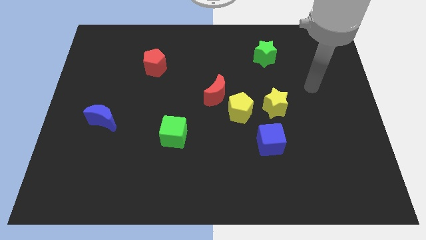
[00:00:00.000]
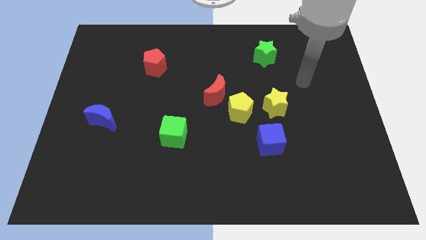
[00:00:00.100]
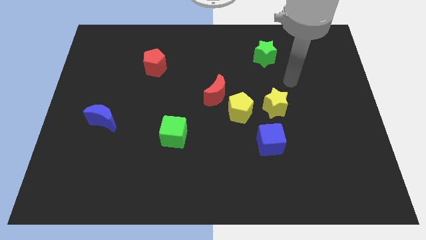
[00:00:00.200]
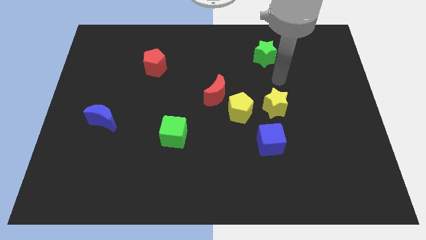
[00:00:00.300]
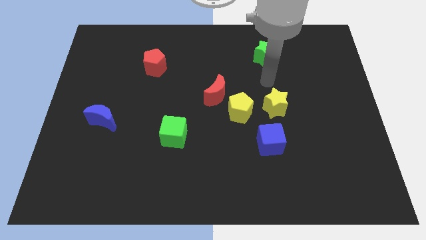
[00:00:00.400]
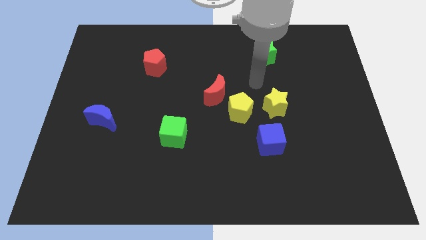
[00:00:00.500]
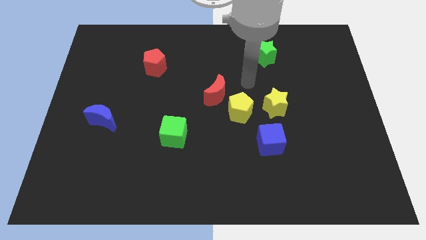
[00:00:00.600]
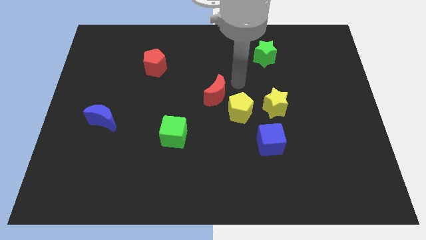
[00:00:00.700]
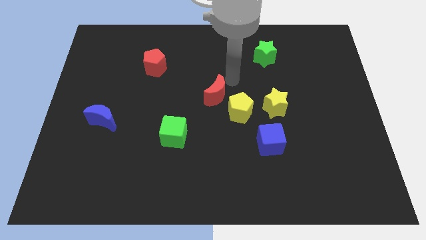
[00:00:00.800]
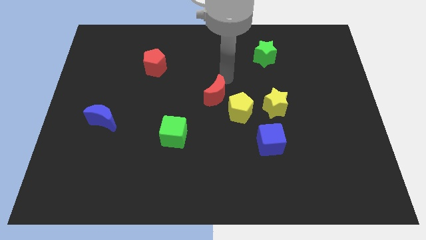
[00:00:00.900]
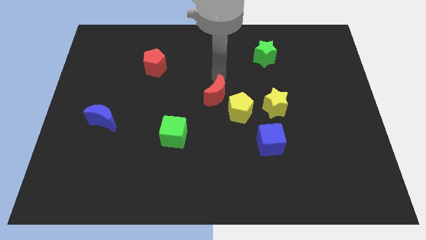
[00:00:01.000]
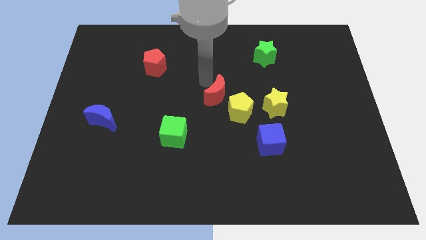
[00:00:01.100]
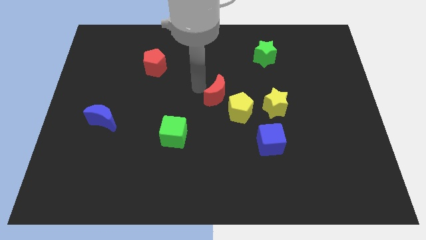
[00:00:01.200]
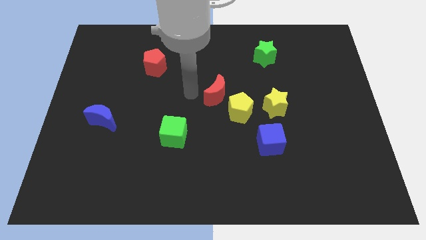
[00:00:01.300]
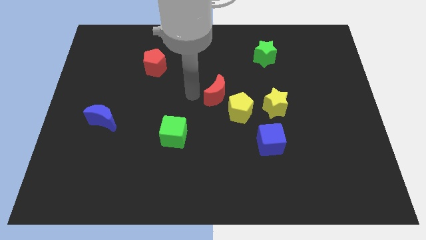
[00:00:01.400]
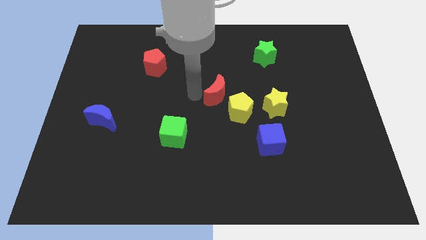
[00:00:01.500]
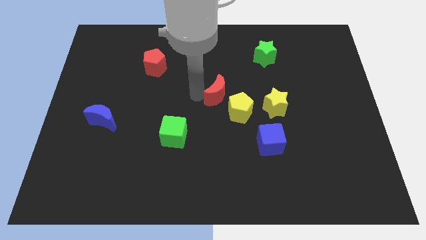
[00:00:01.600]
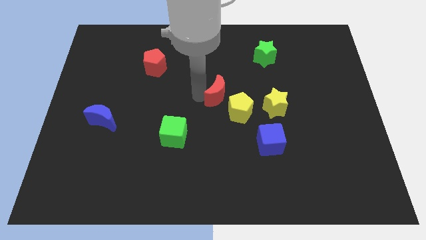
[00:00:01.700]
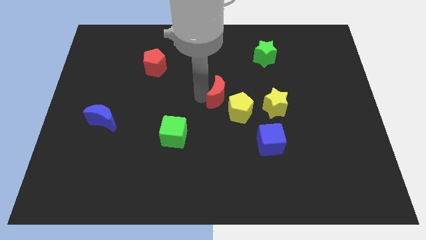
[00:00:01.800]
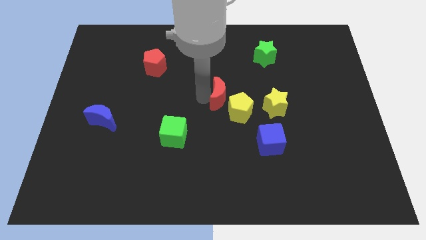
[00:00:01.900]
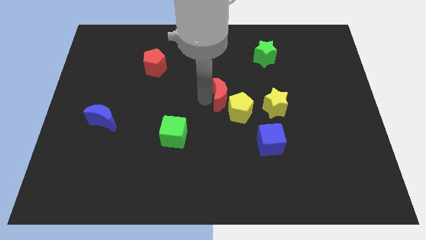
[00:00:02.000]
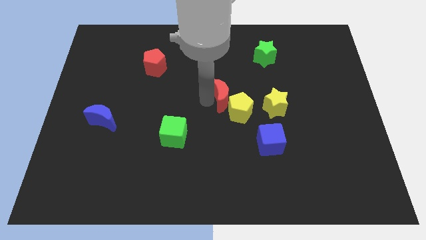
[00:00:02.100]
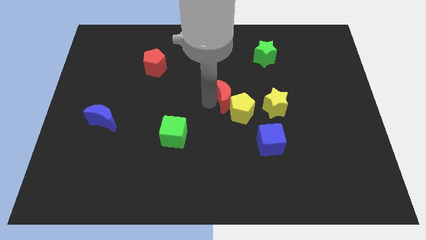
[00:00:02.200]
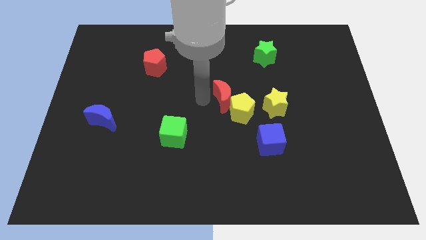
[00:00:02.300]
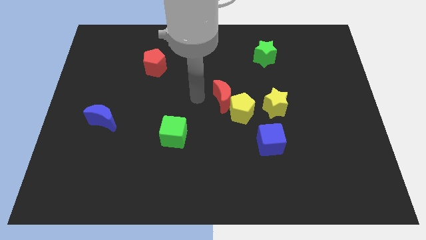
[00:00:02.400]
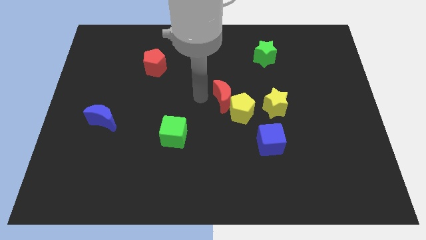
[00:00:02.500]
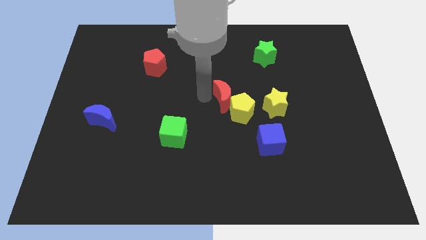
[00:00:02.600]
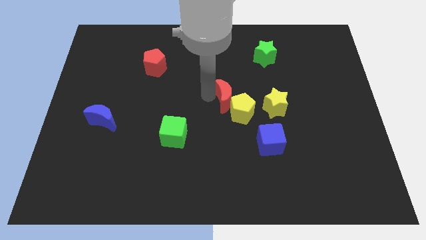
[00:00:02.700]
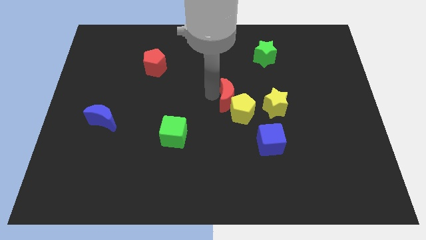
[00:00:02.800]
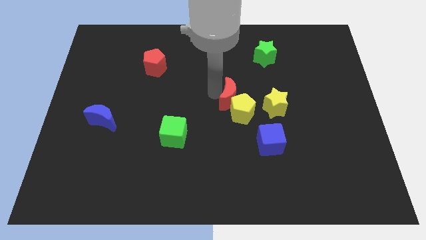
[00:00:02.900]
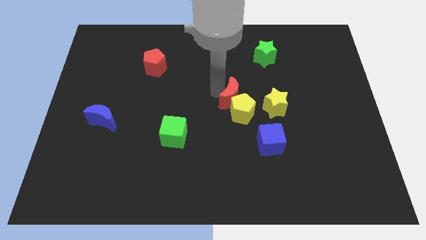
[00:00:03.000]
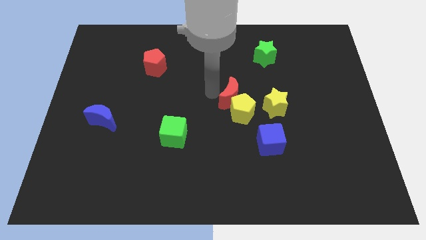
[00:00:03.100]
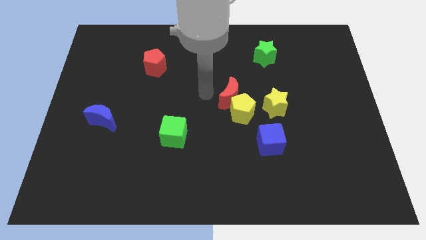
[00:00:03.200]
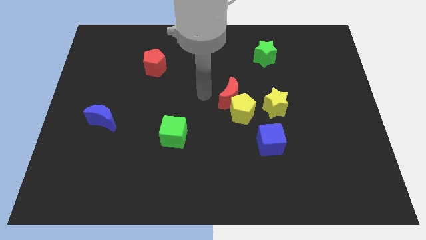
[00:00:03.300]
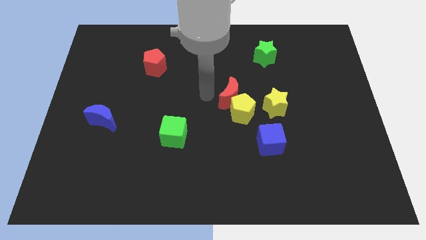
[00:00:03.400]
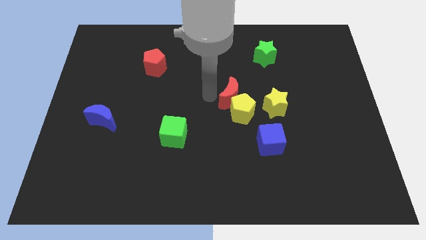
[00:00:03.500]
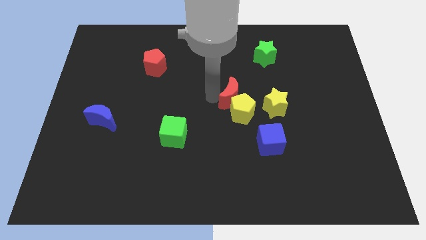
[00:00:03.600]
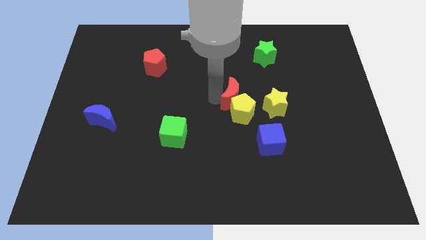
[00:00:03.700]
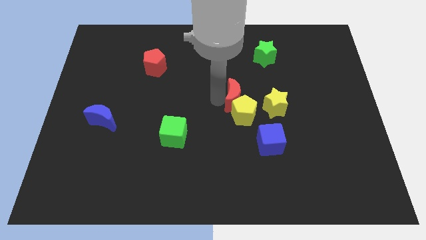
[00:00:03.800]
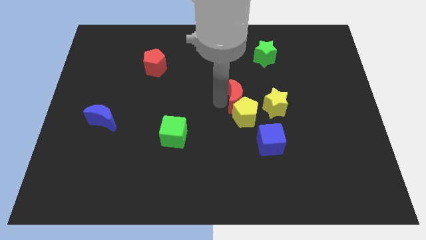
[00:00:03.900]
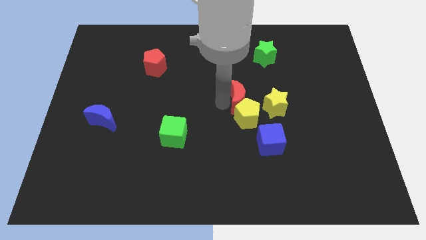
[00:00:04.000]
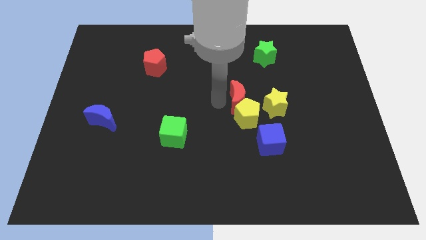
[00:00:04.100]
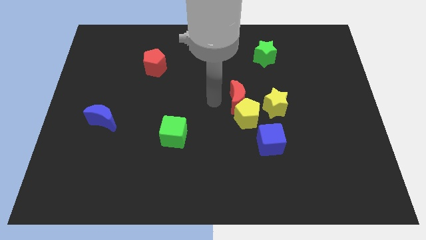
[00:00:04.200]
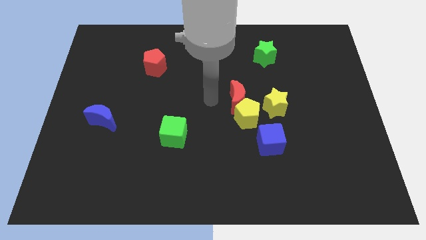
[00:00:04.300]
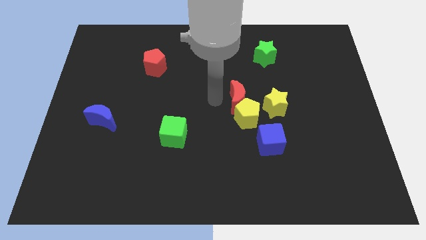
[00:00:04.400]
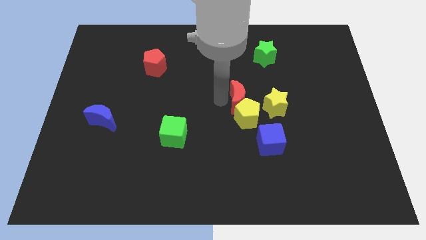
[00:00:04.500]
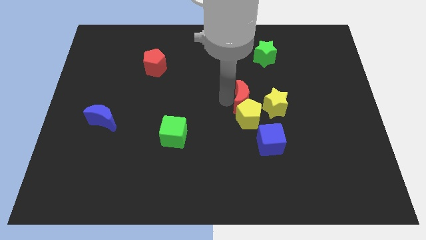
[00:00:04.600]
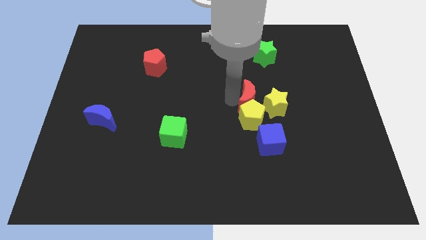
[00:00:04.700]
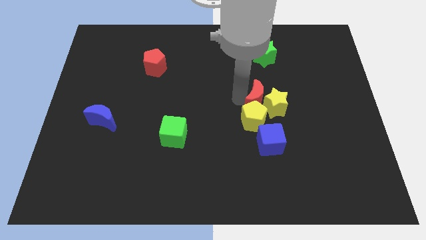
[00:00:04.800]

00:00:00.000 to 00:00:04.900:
move the red moon close to the yellow star

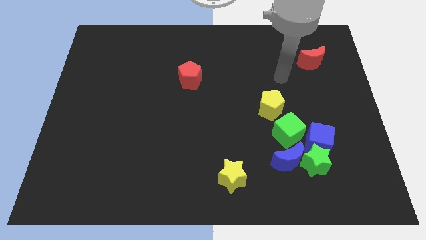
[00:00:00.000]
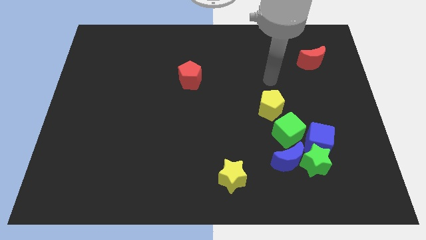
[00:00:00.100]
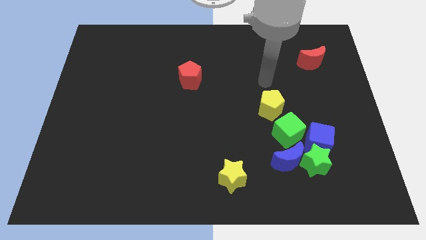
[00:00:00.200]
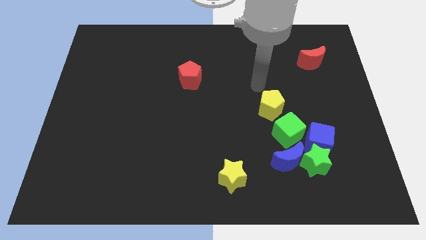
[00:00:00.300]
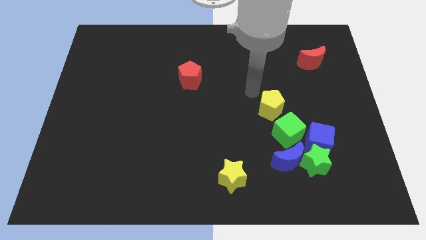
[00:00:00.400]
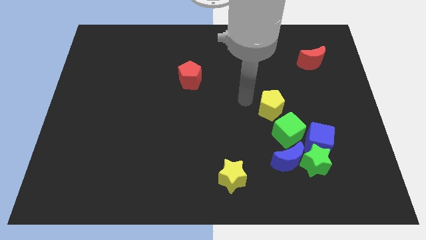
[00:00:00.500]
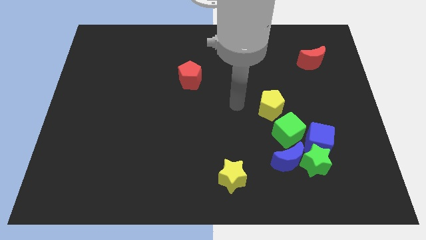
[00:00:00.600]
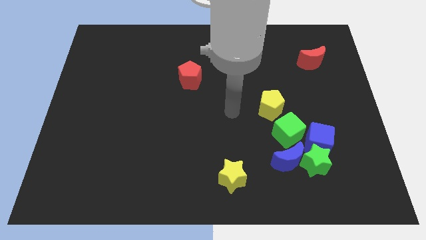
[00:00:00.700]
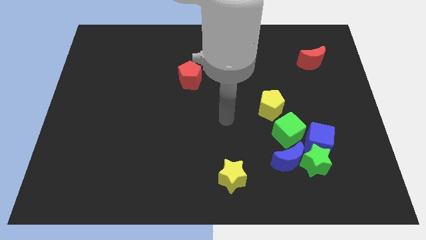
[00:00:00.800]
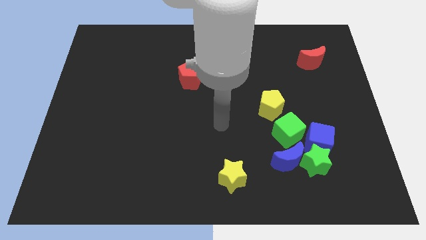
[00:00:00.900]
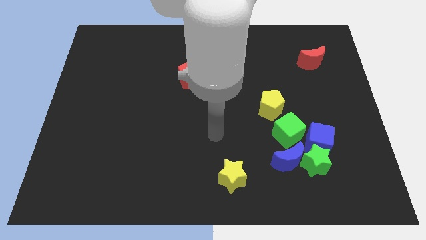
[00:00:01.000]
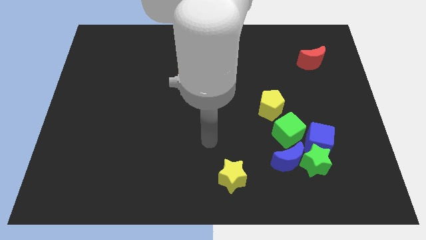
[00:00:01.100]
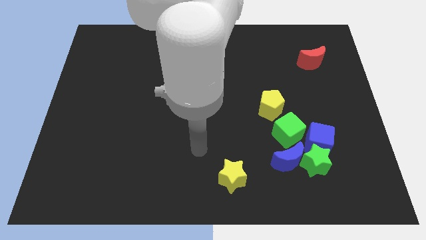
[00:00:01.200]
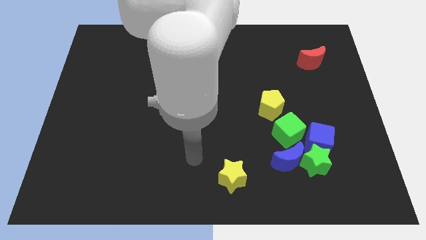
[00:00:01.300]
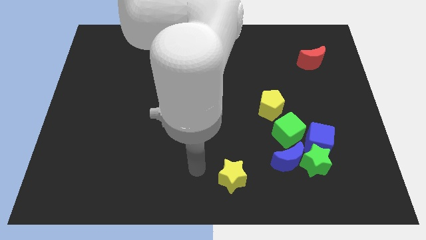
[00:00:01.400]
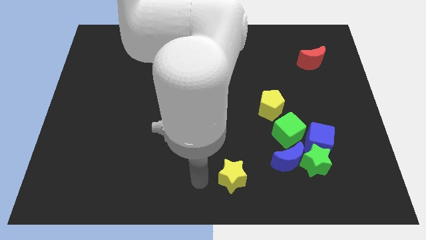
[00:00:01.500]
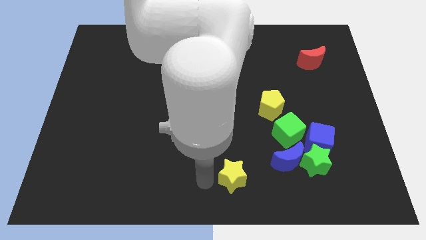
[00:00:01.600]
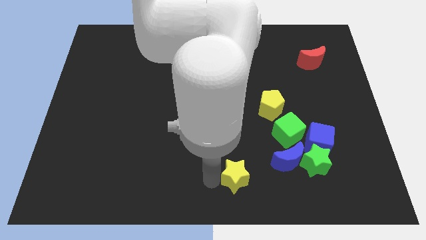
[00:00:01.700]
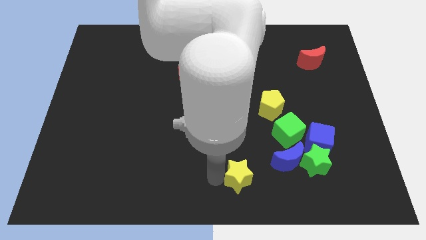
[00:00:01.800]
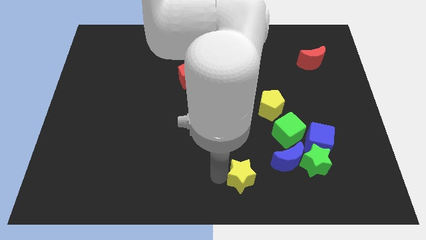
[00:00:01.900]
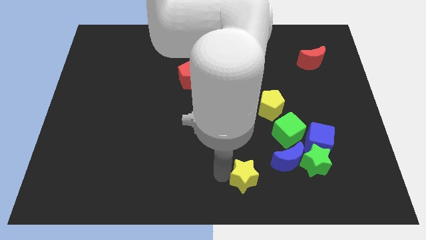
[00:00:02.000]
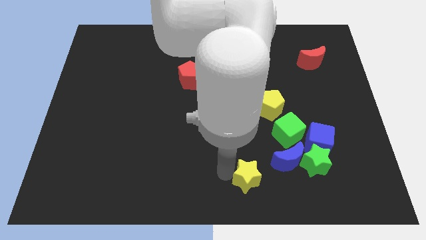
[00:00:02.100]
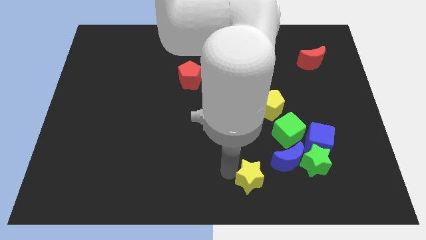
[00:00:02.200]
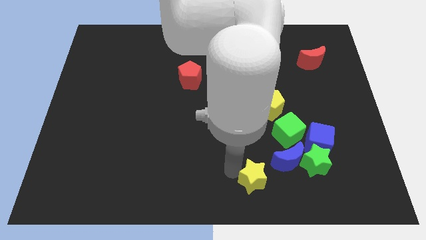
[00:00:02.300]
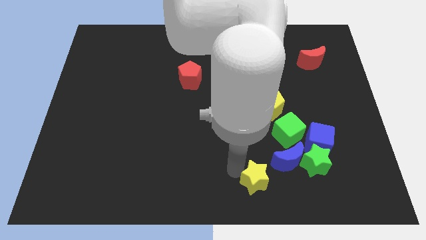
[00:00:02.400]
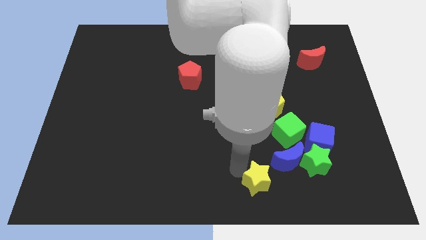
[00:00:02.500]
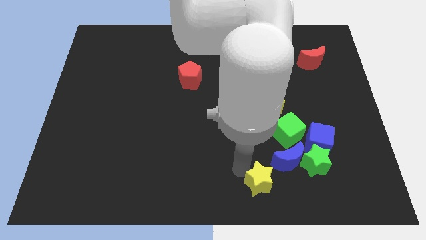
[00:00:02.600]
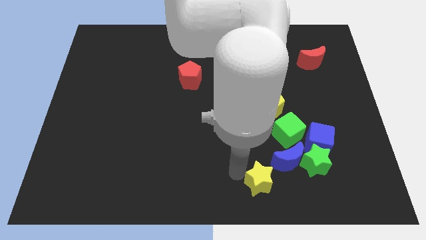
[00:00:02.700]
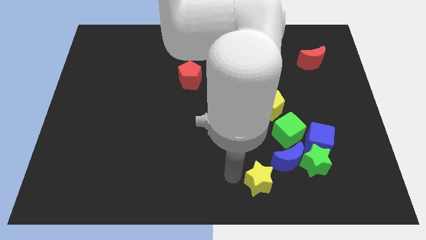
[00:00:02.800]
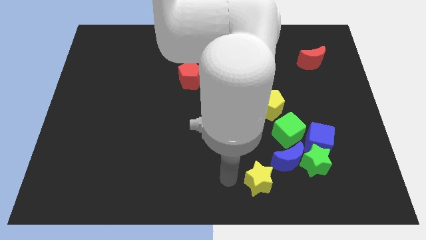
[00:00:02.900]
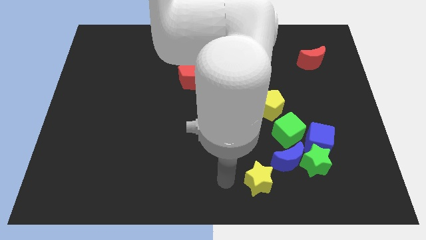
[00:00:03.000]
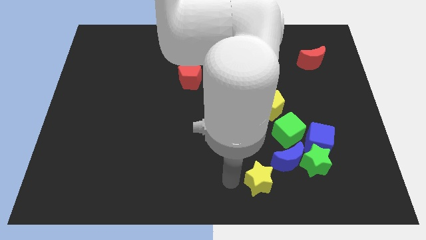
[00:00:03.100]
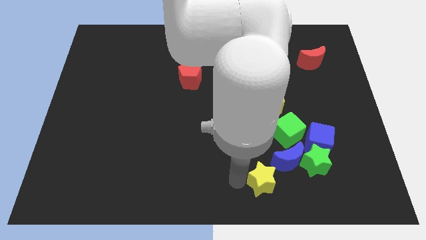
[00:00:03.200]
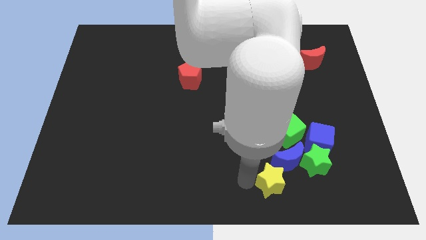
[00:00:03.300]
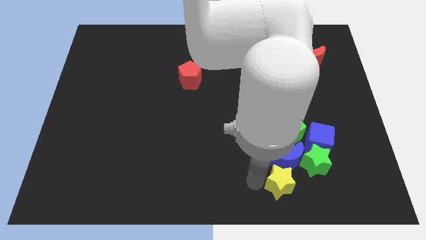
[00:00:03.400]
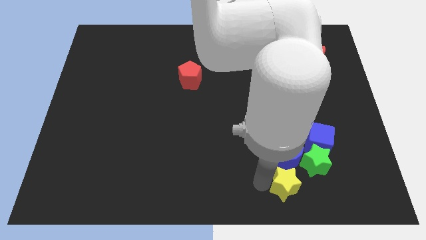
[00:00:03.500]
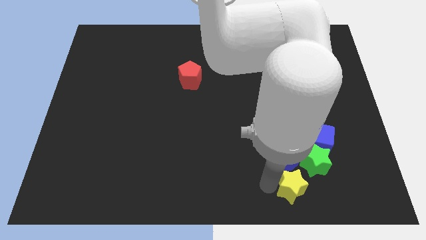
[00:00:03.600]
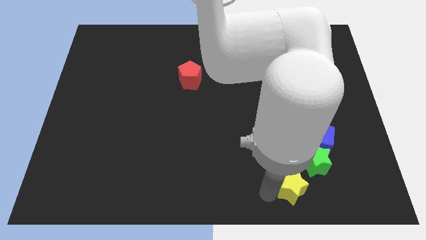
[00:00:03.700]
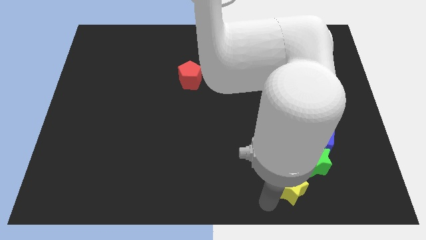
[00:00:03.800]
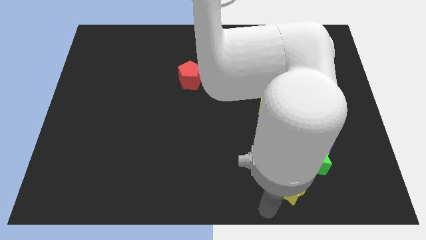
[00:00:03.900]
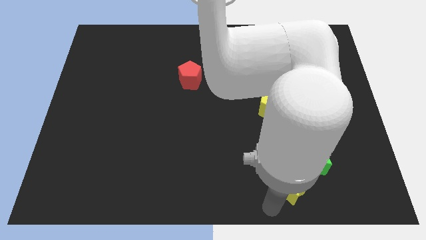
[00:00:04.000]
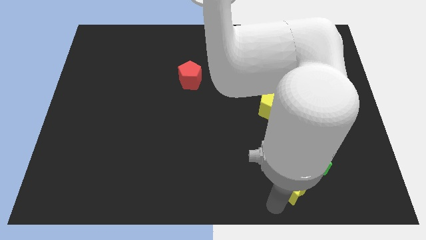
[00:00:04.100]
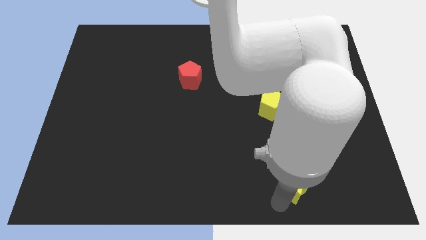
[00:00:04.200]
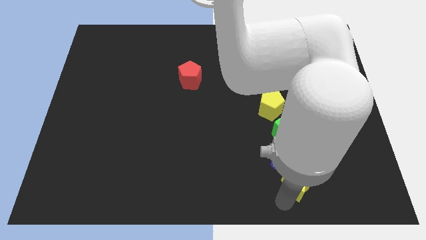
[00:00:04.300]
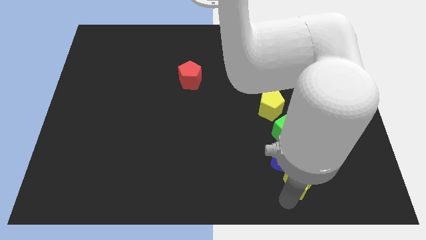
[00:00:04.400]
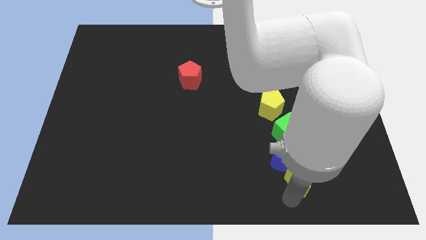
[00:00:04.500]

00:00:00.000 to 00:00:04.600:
put the yellow star close to the green star
